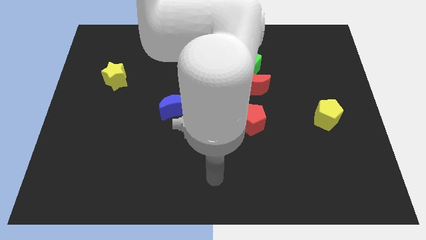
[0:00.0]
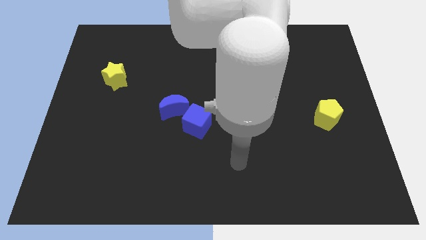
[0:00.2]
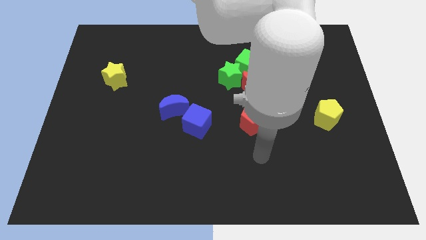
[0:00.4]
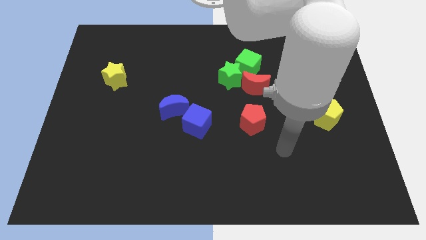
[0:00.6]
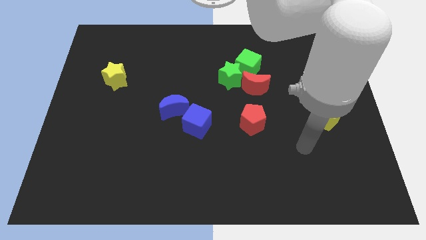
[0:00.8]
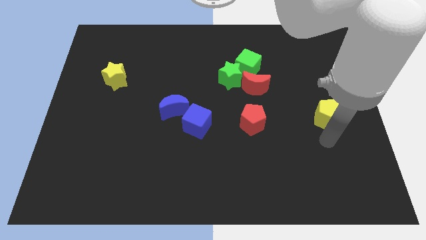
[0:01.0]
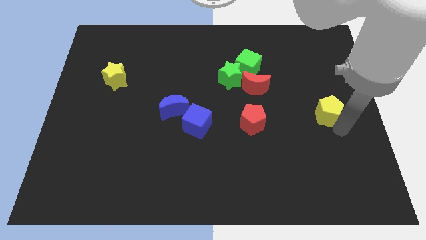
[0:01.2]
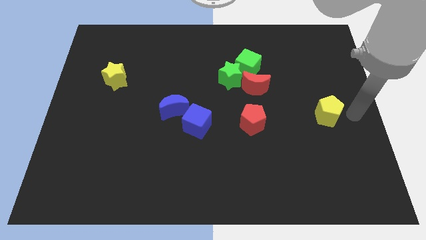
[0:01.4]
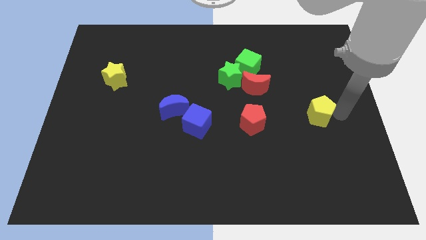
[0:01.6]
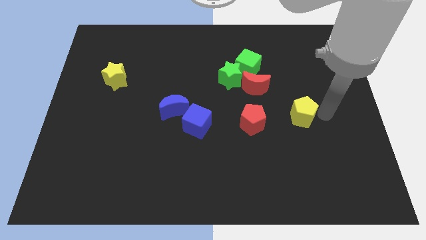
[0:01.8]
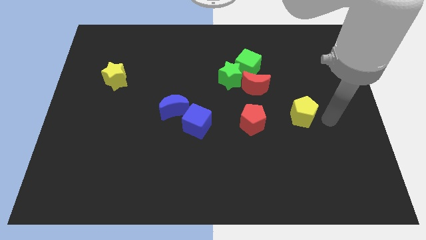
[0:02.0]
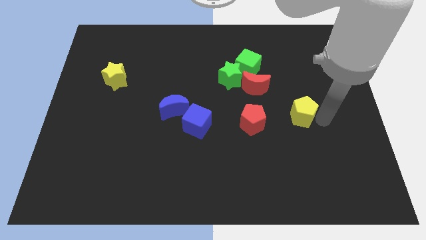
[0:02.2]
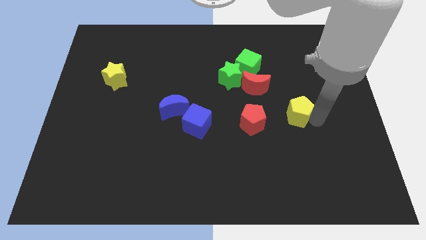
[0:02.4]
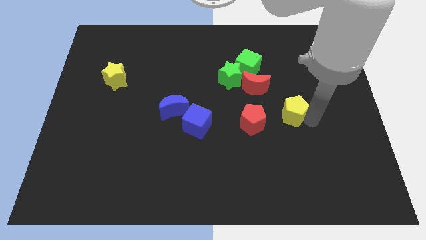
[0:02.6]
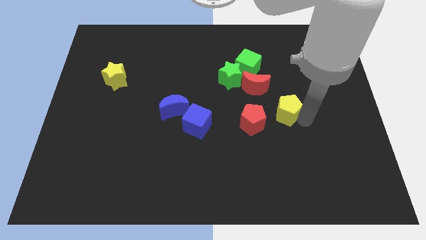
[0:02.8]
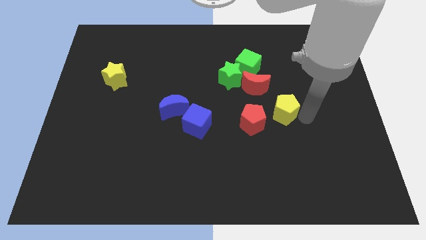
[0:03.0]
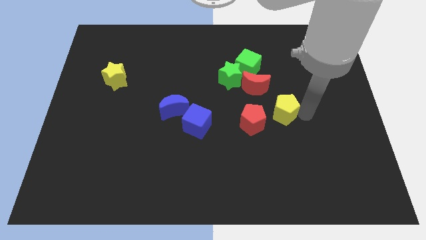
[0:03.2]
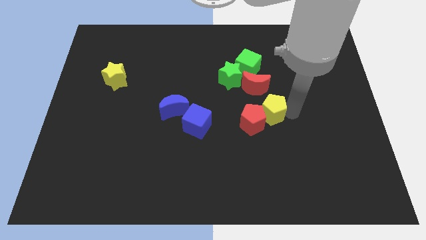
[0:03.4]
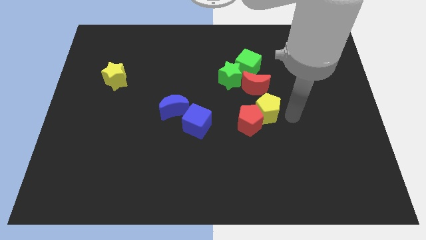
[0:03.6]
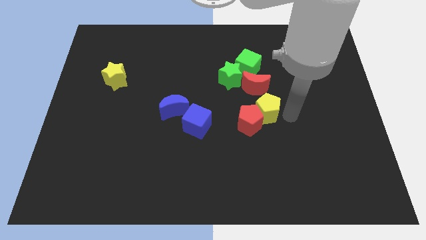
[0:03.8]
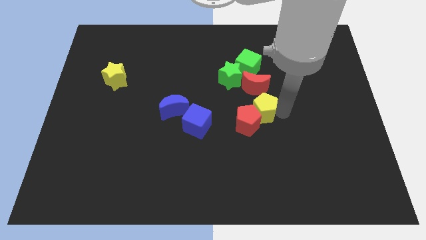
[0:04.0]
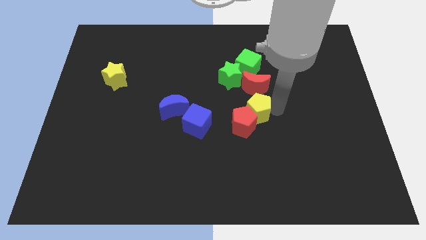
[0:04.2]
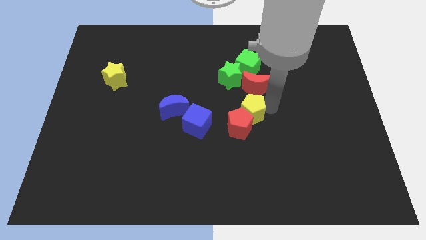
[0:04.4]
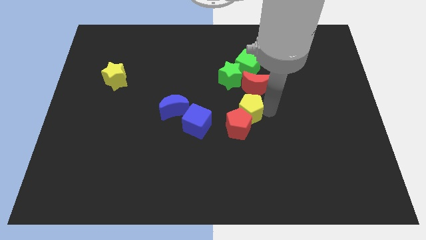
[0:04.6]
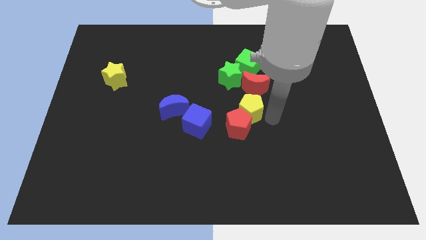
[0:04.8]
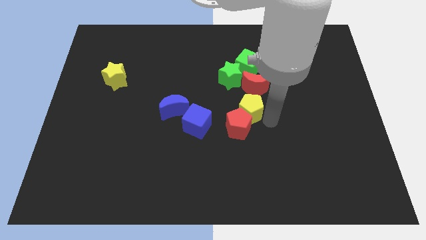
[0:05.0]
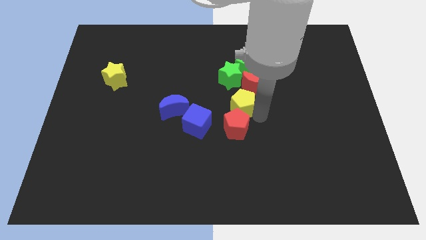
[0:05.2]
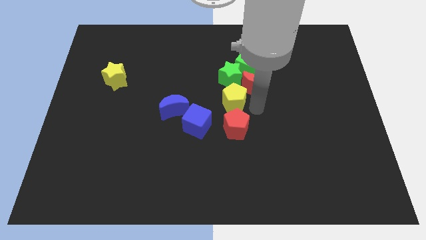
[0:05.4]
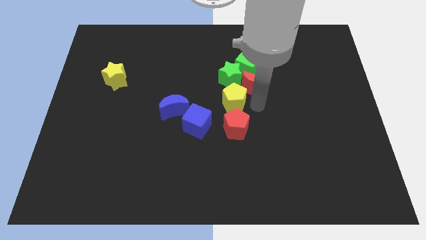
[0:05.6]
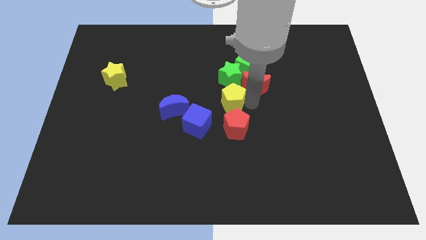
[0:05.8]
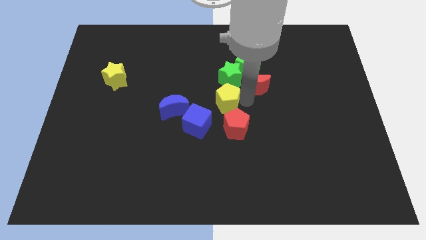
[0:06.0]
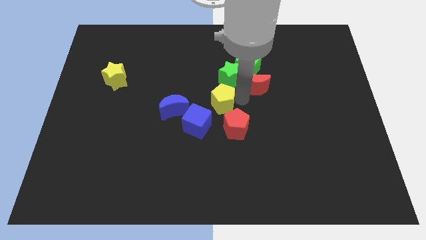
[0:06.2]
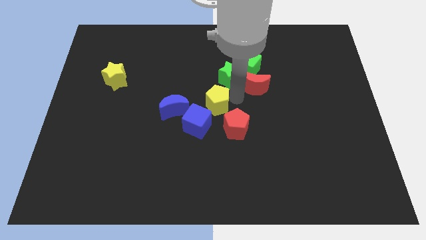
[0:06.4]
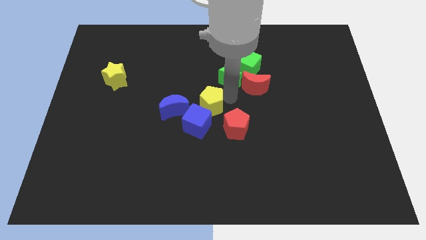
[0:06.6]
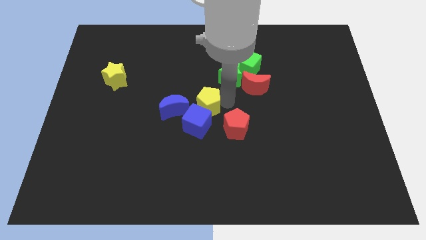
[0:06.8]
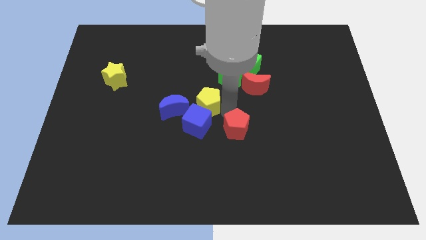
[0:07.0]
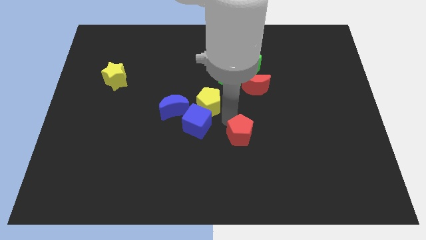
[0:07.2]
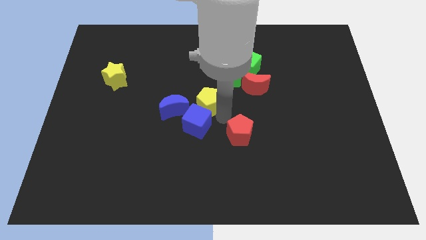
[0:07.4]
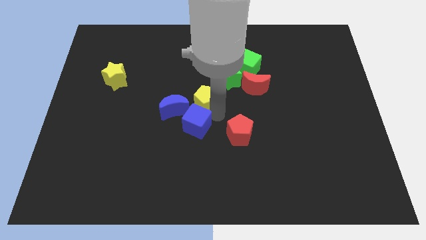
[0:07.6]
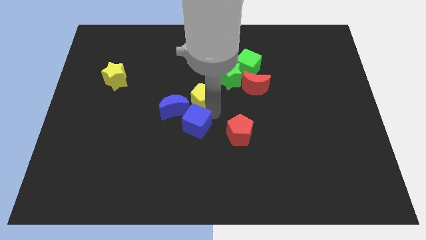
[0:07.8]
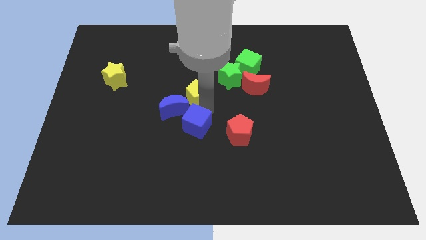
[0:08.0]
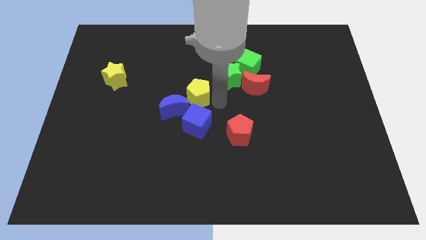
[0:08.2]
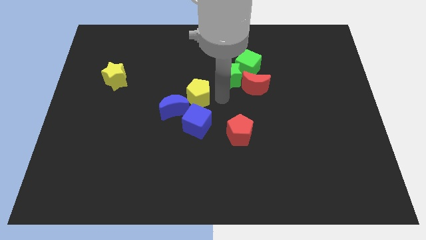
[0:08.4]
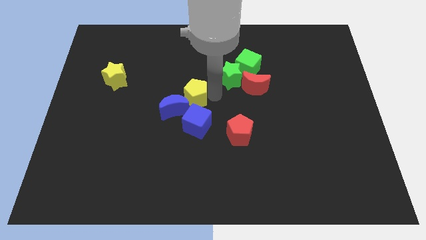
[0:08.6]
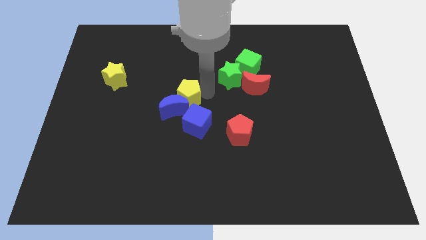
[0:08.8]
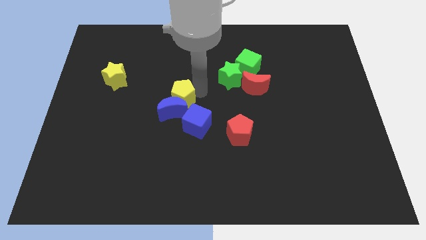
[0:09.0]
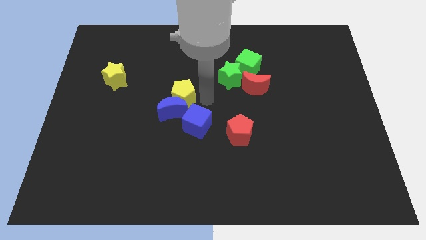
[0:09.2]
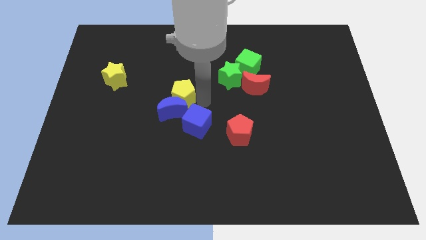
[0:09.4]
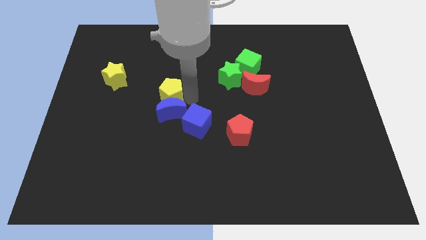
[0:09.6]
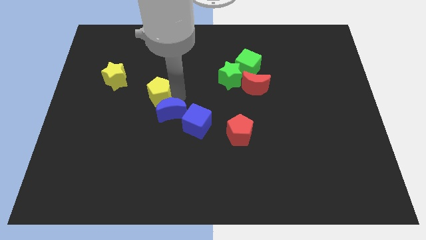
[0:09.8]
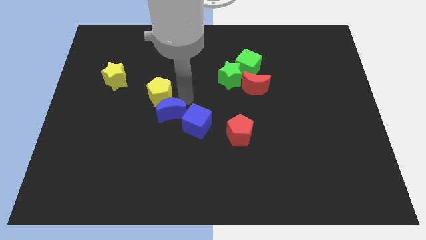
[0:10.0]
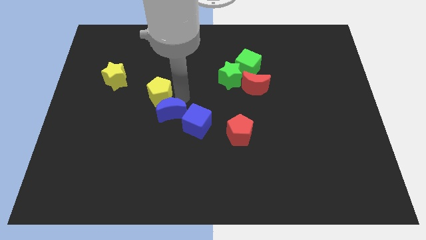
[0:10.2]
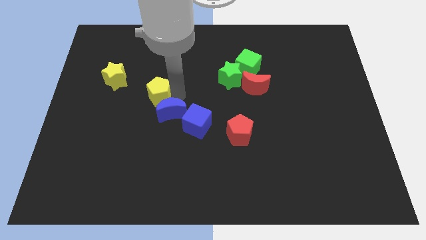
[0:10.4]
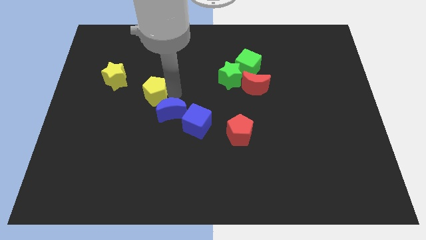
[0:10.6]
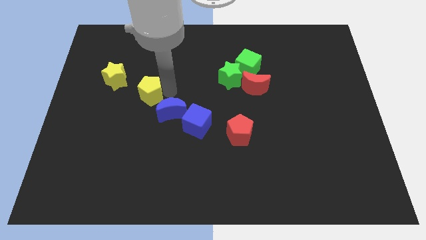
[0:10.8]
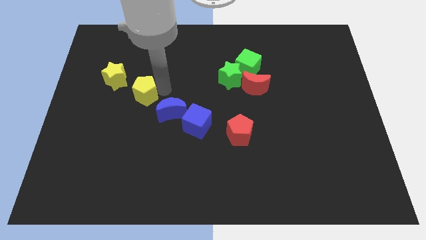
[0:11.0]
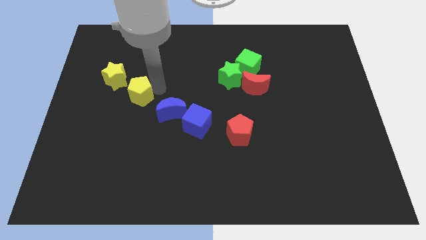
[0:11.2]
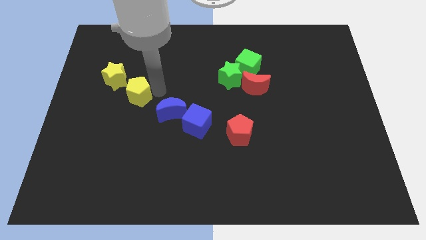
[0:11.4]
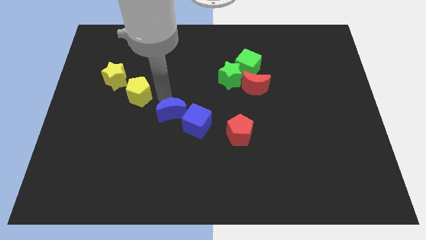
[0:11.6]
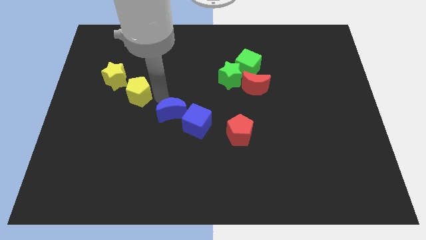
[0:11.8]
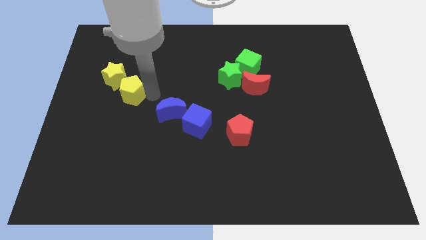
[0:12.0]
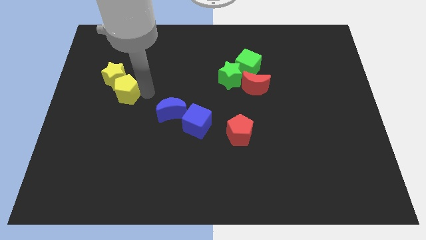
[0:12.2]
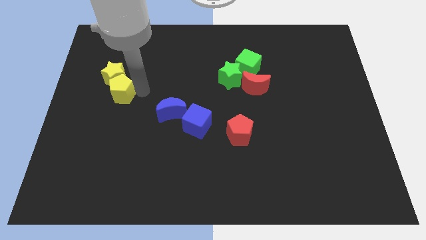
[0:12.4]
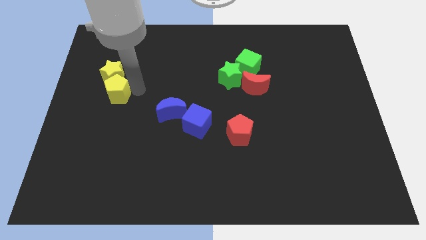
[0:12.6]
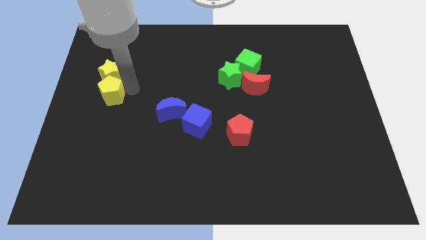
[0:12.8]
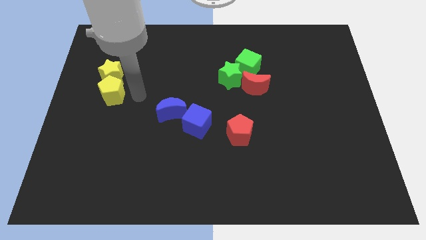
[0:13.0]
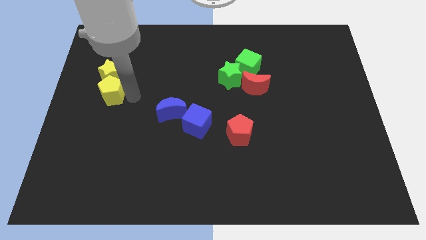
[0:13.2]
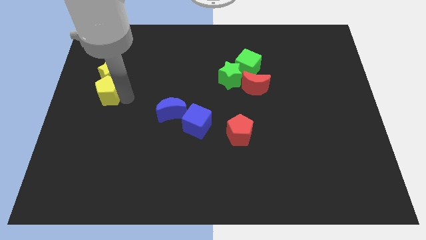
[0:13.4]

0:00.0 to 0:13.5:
move the yellow pentagon to the left side of the board
